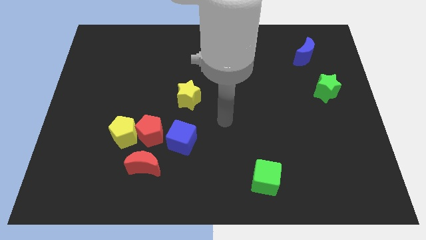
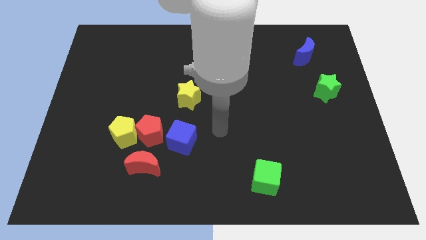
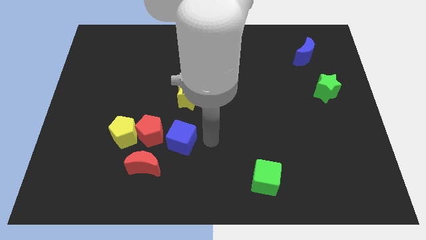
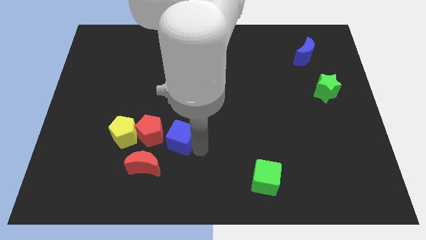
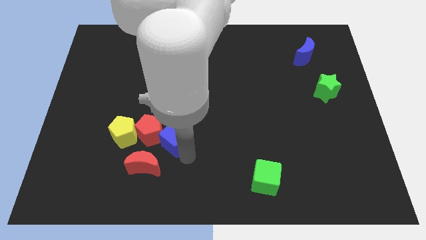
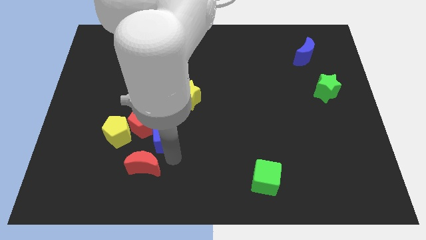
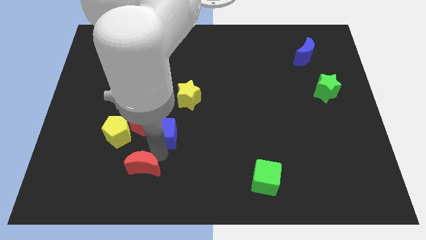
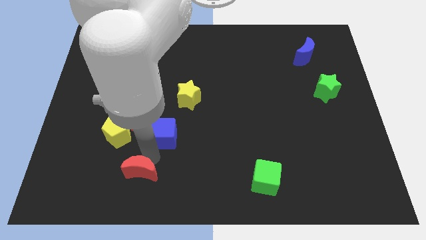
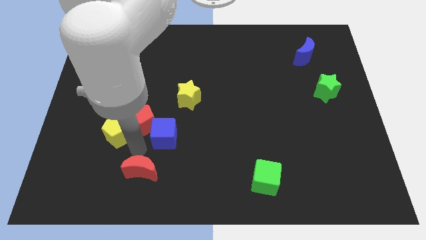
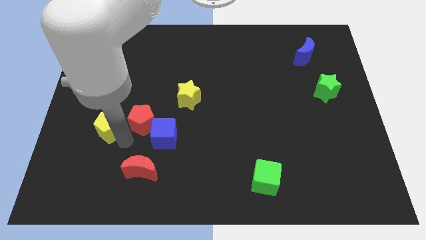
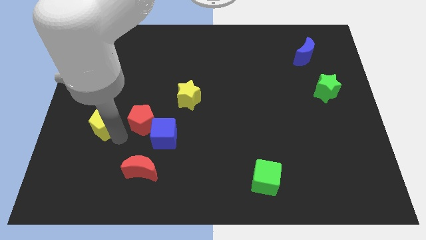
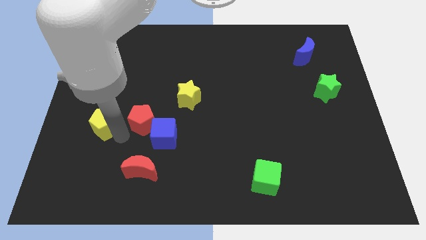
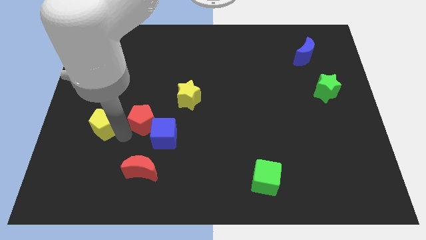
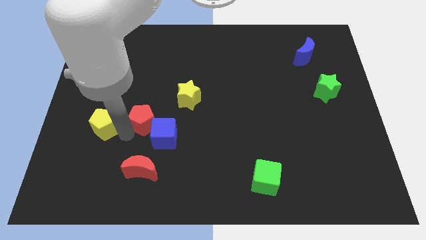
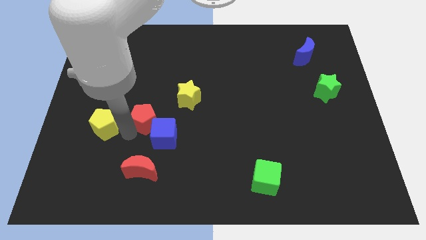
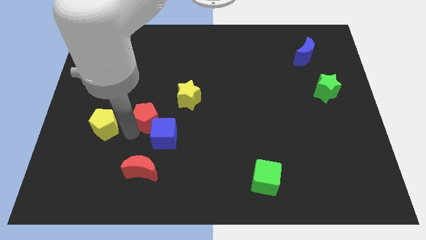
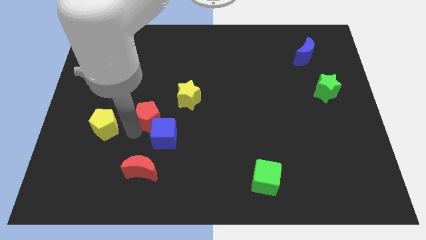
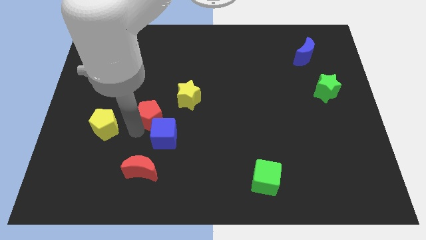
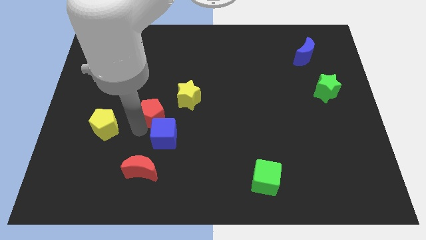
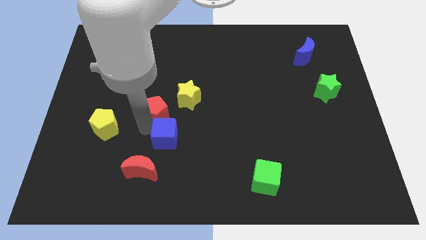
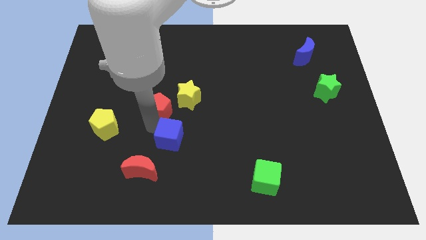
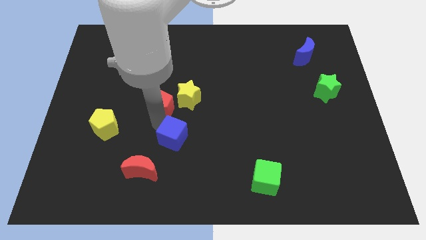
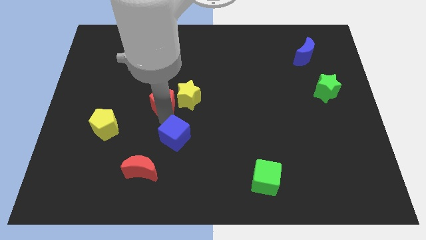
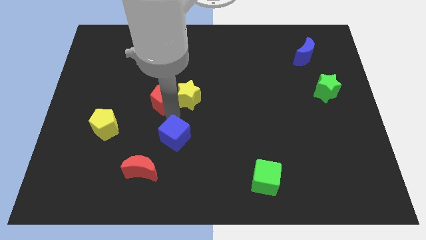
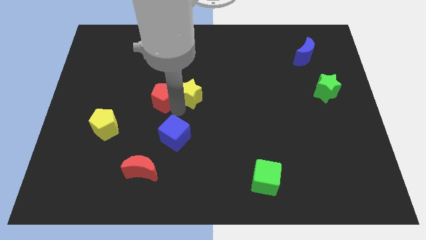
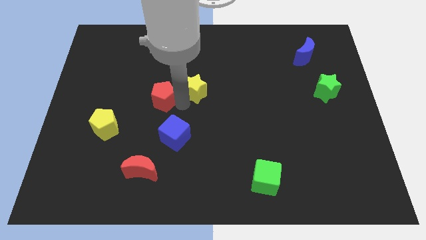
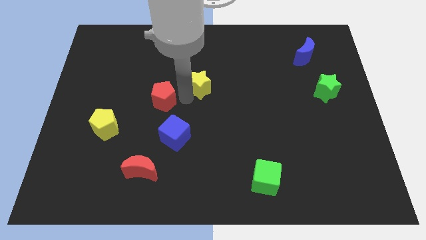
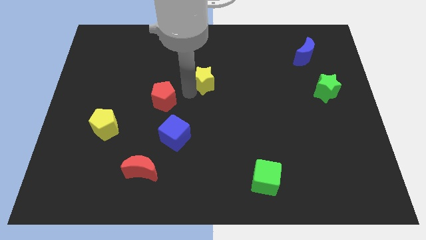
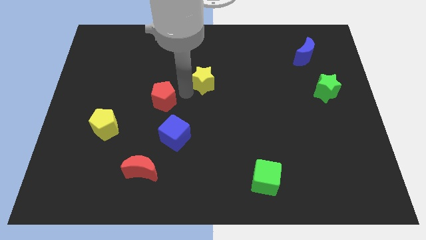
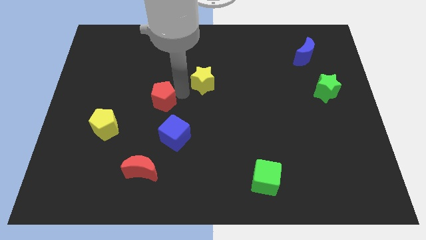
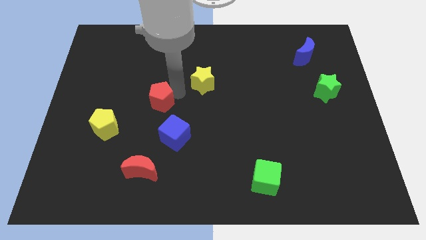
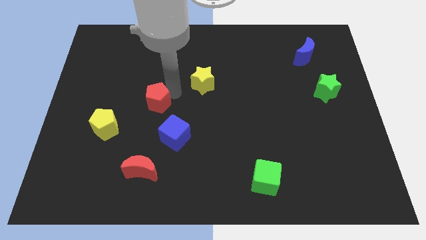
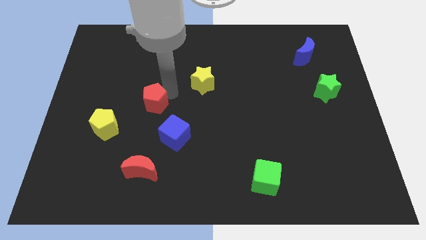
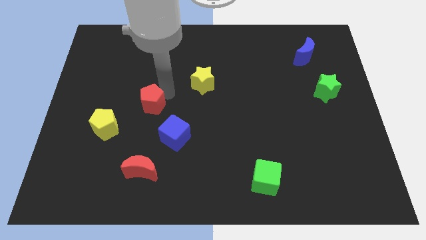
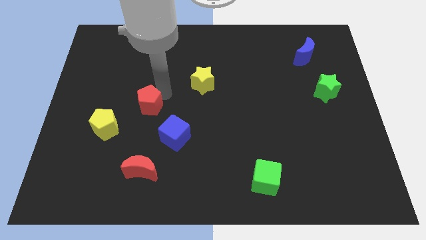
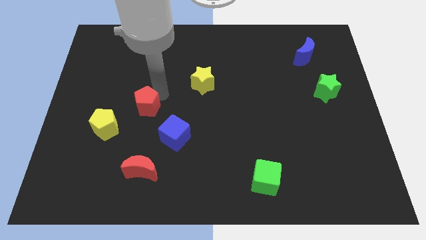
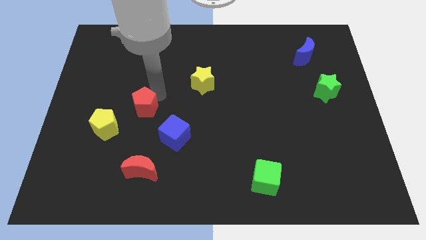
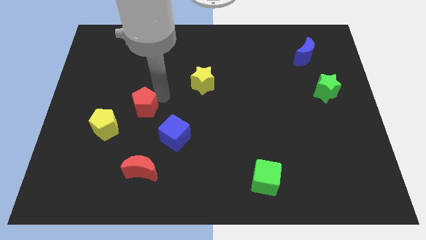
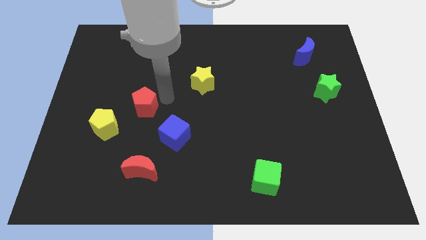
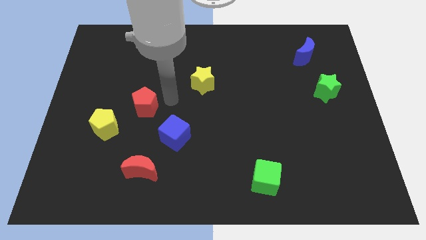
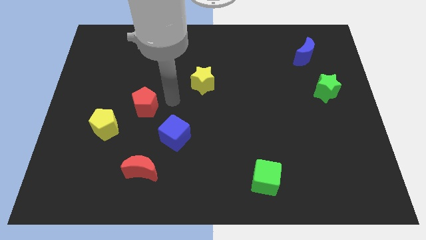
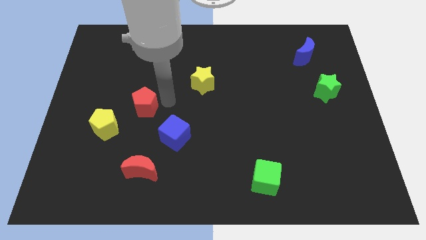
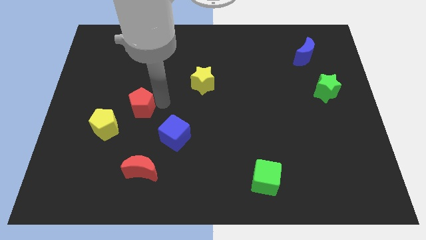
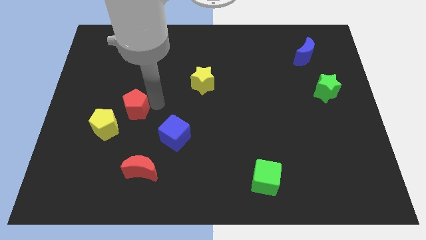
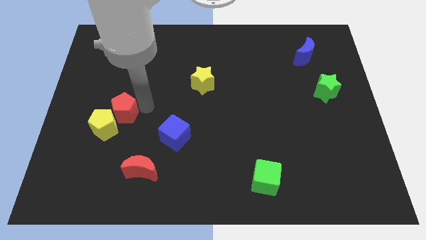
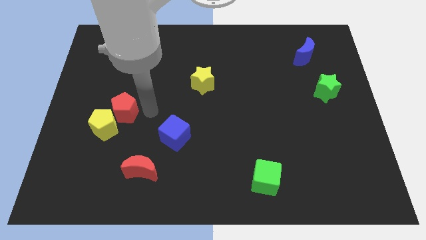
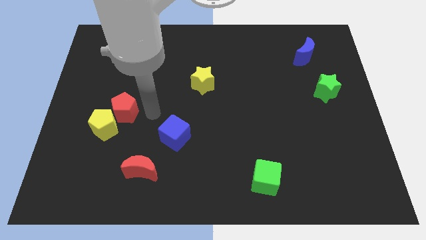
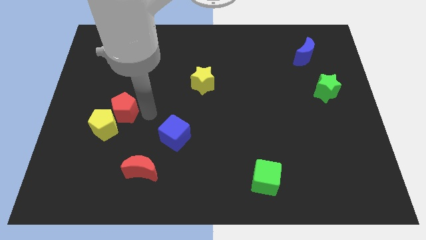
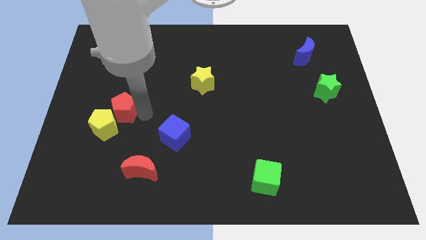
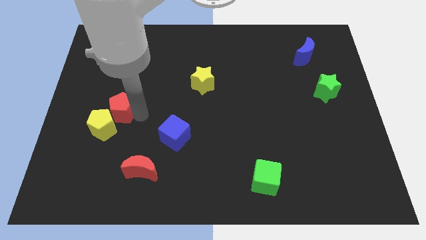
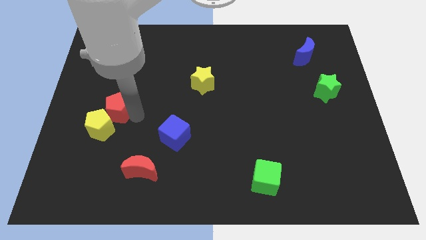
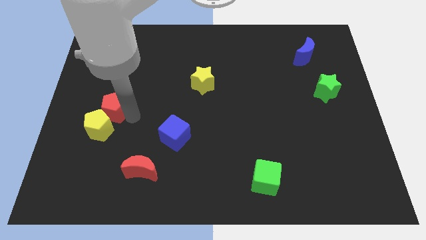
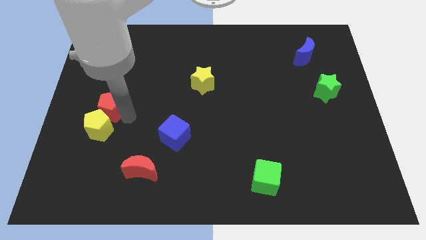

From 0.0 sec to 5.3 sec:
put the red pentagon to the top left side of the yellow pentagon

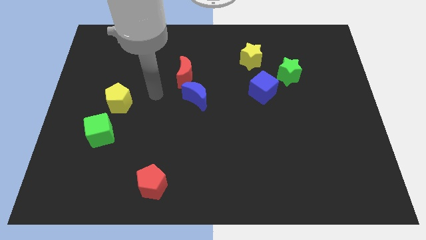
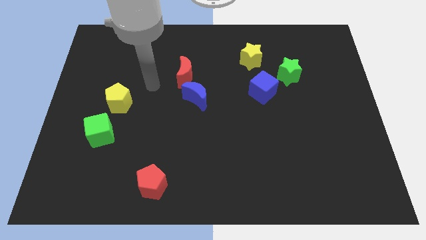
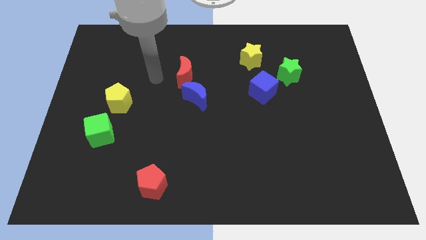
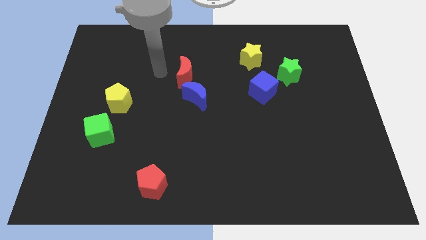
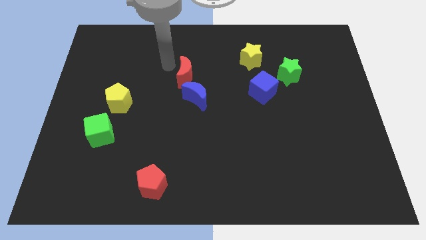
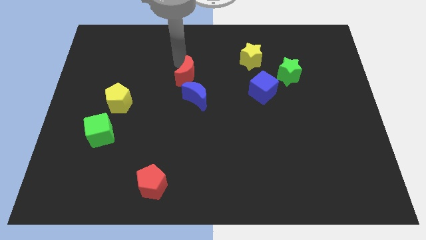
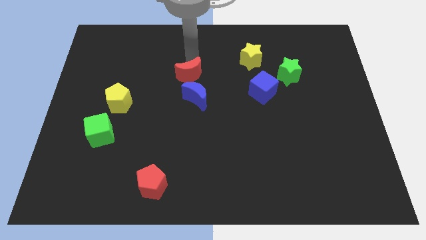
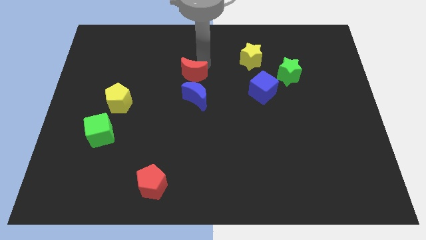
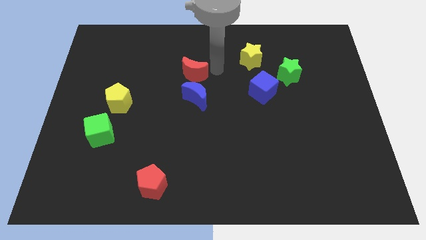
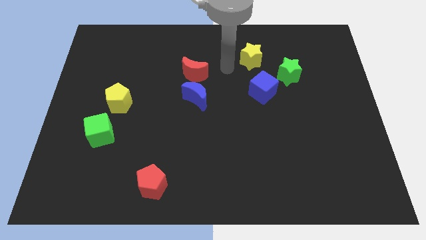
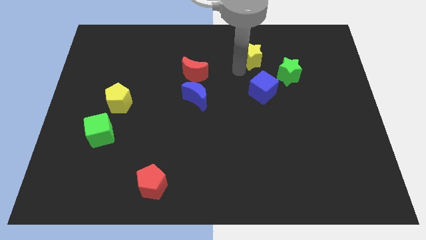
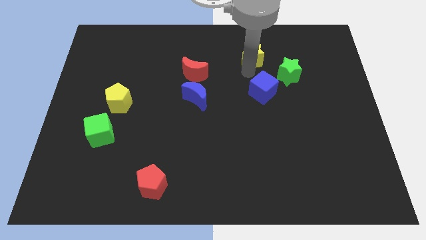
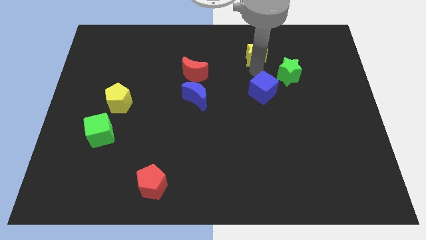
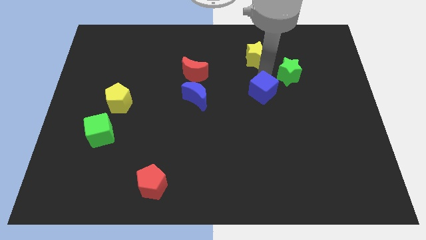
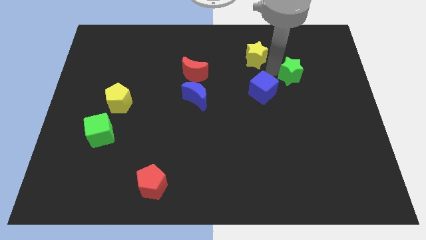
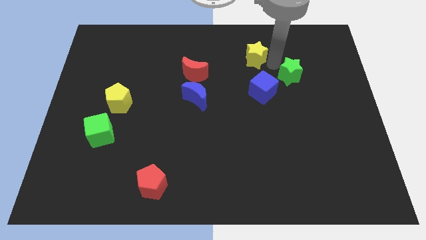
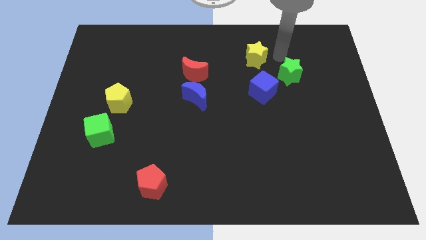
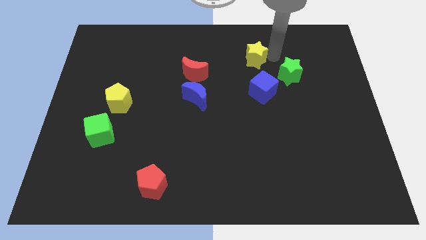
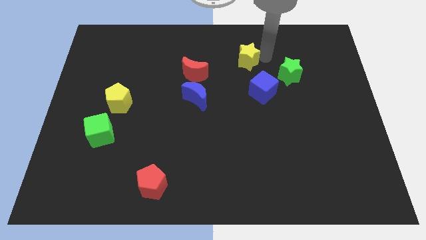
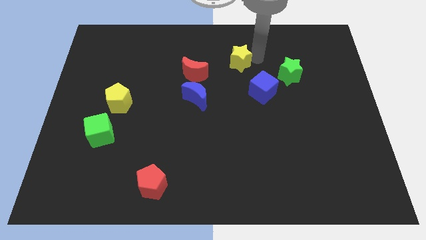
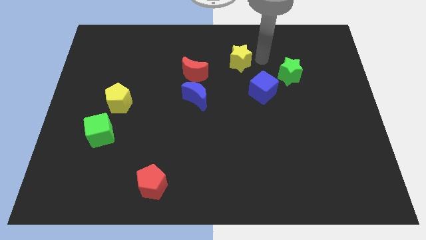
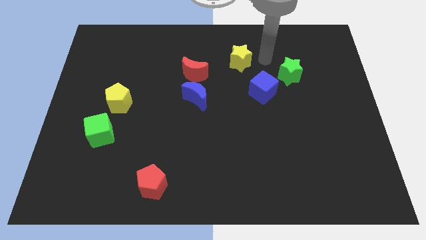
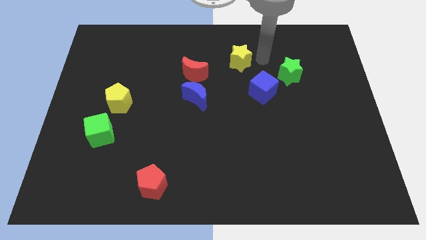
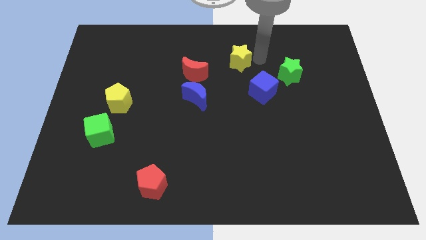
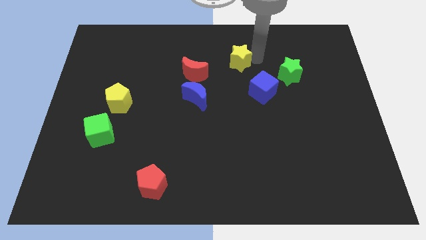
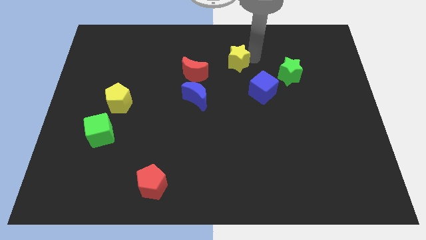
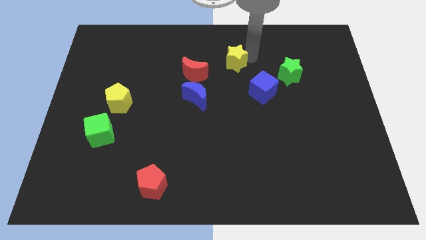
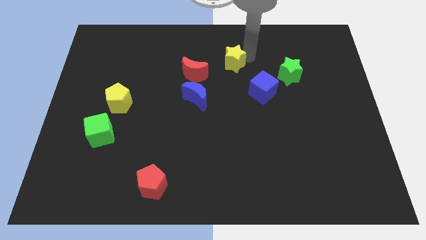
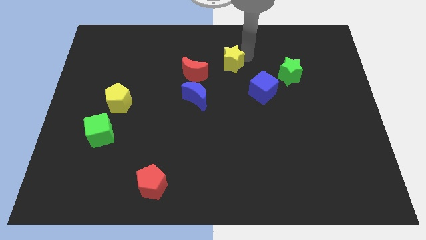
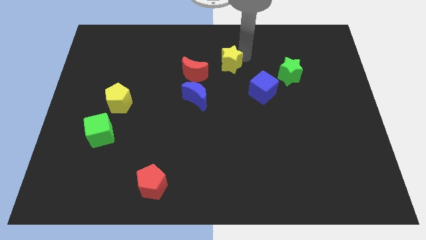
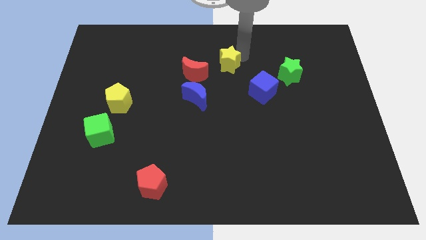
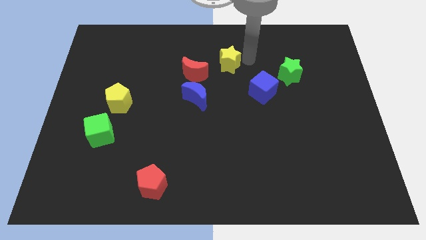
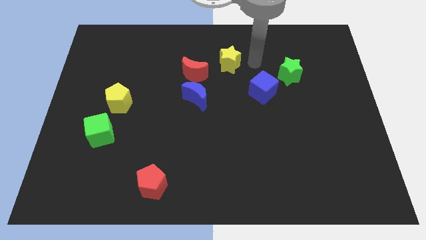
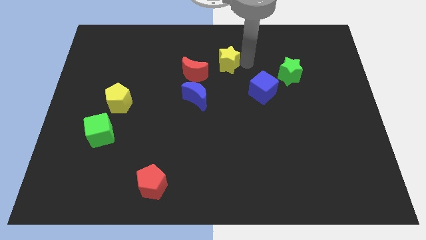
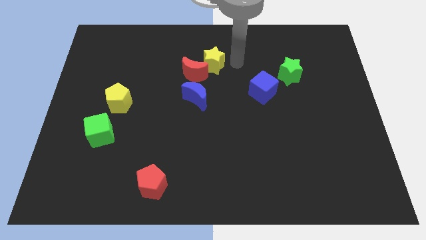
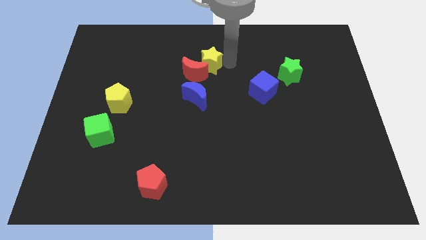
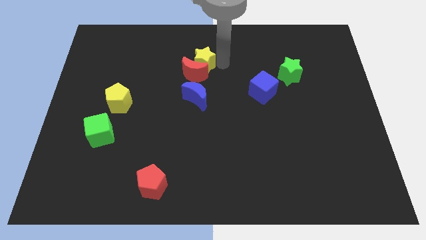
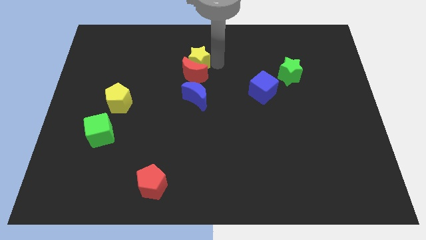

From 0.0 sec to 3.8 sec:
push the yellow star diagonally up and to the left of the red moon
